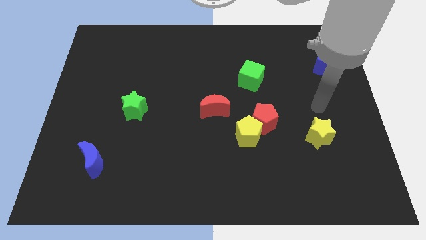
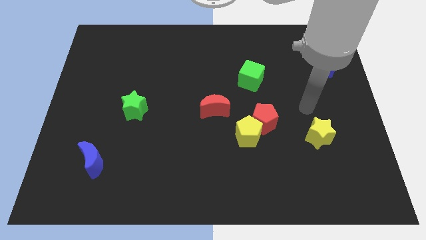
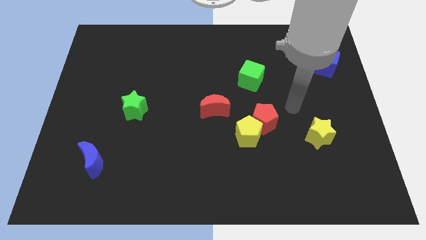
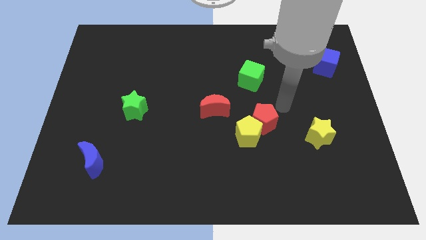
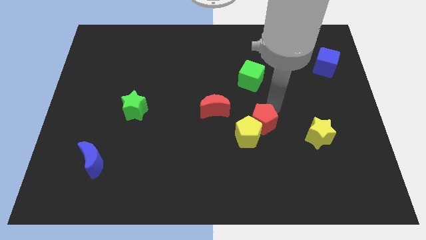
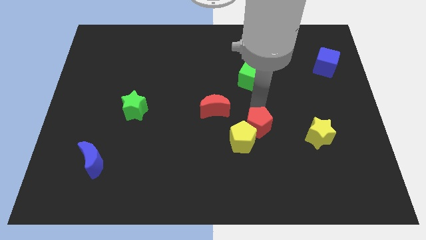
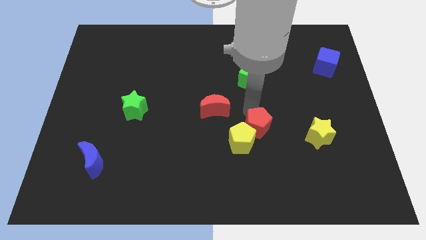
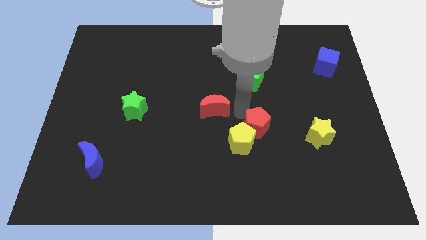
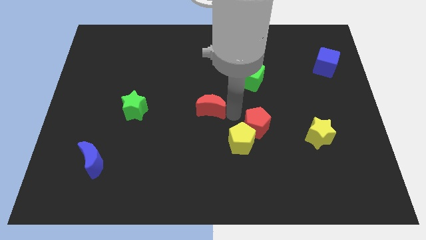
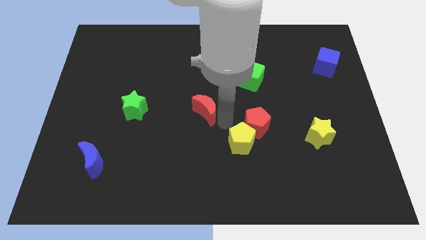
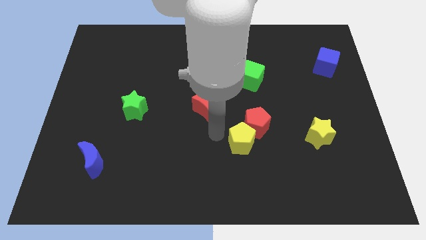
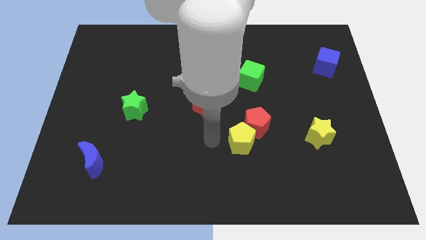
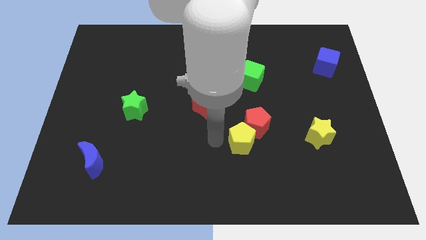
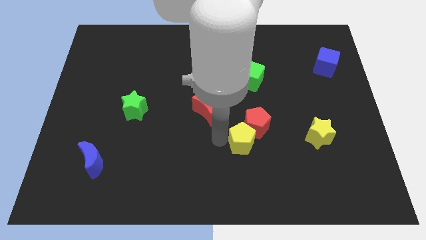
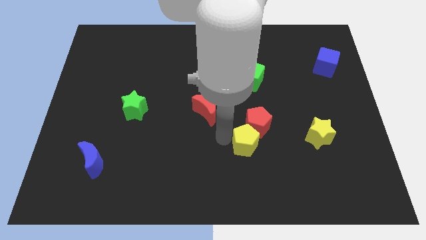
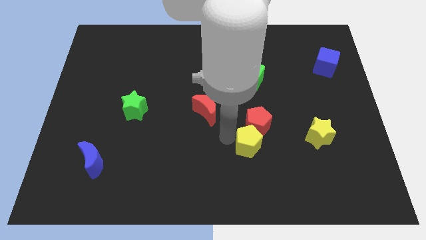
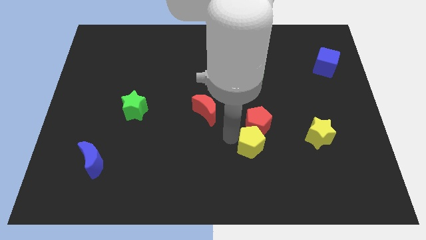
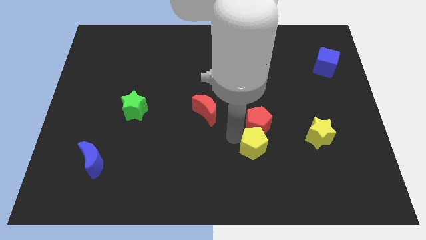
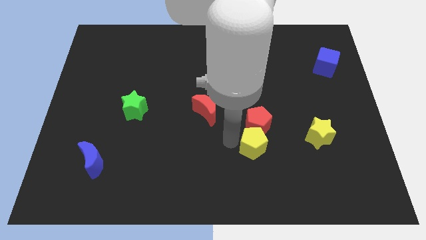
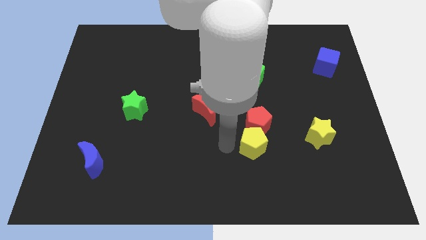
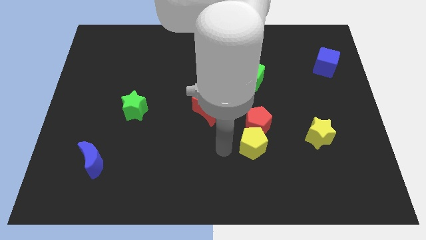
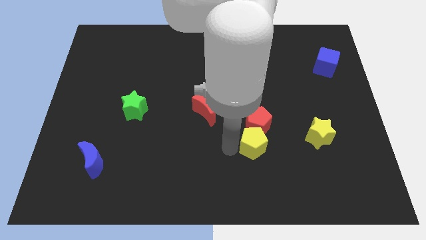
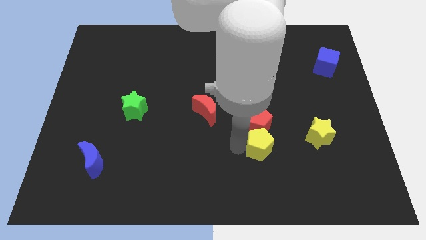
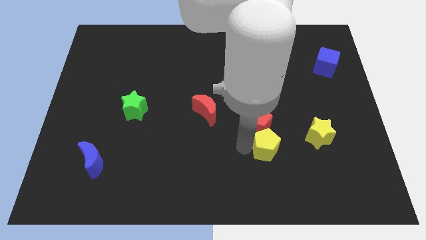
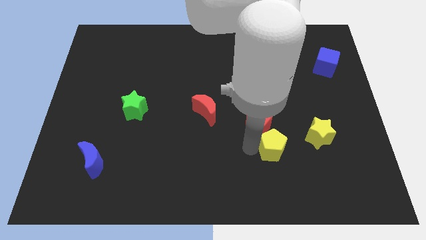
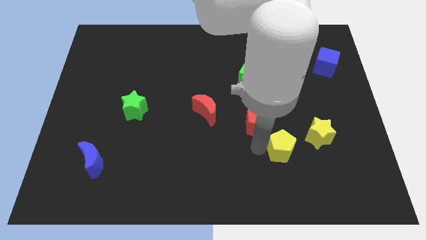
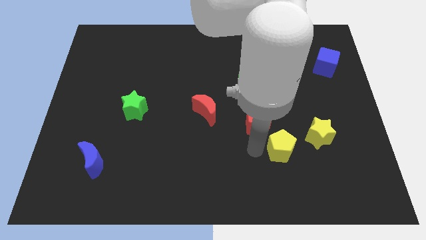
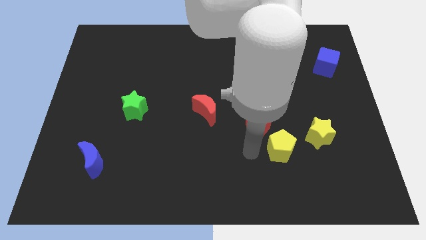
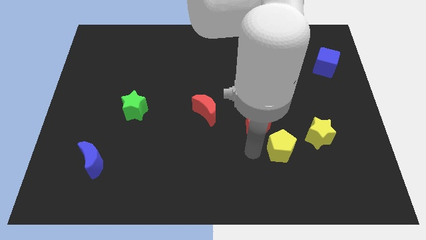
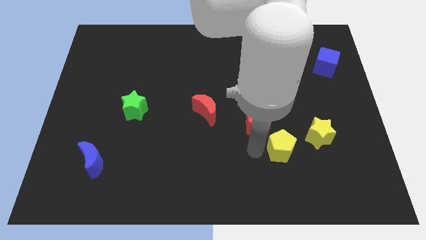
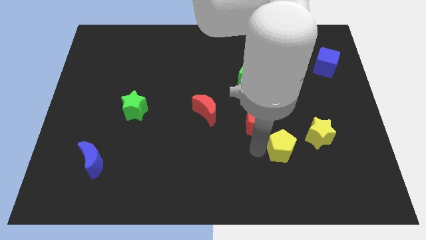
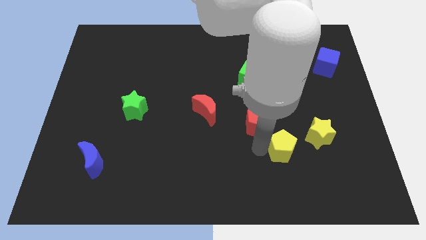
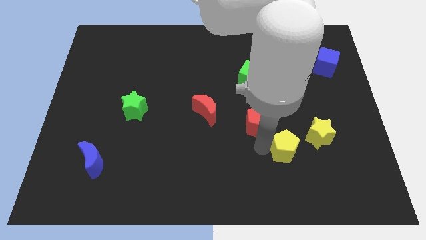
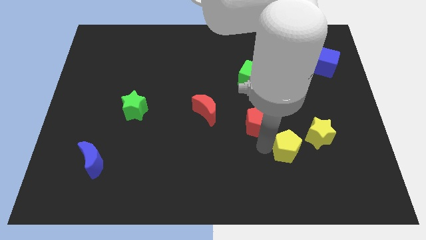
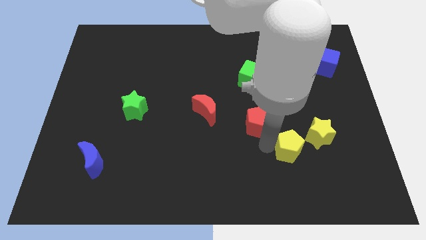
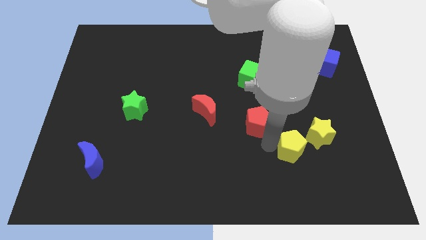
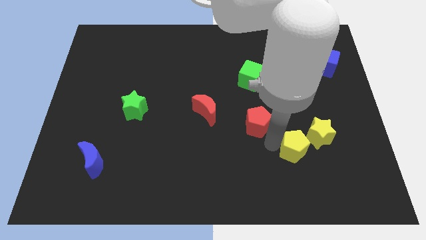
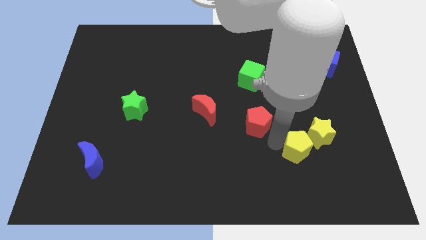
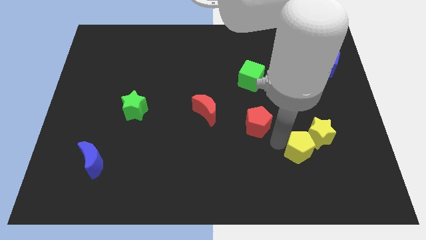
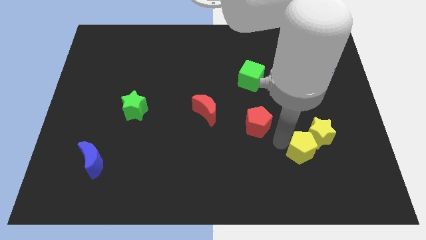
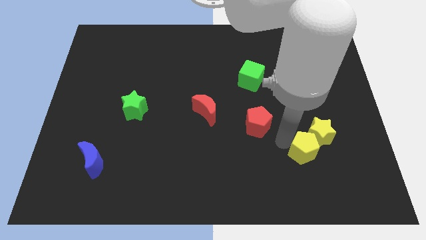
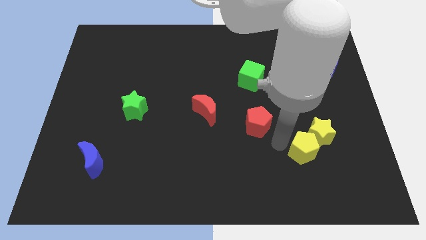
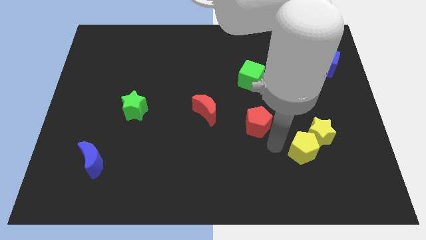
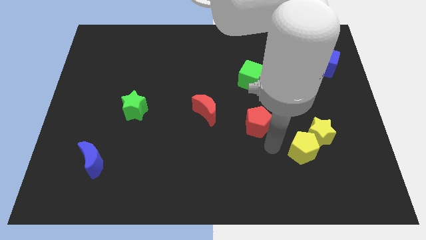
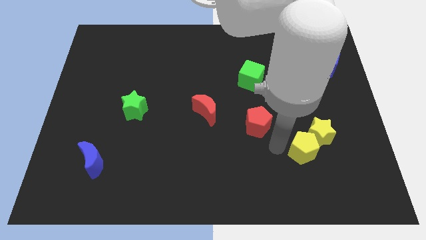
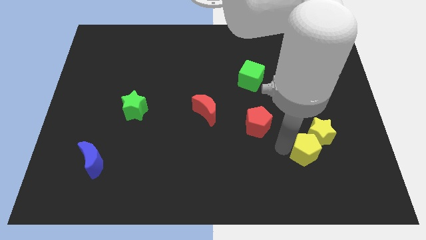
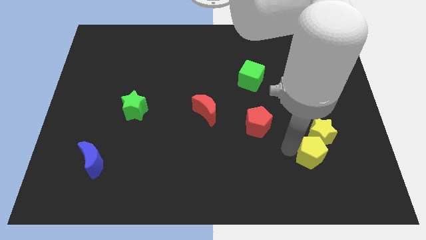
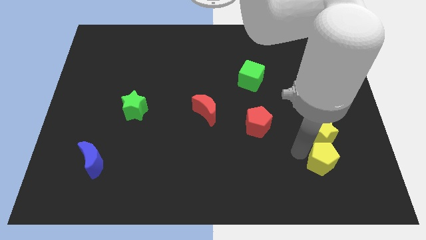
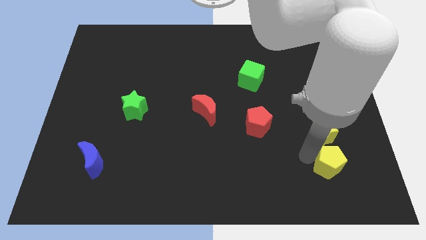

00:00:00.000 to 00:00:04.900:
put the yellow pentagon to the bottom right of the yellow star

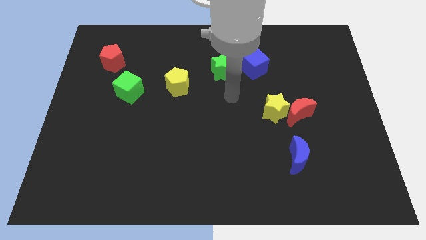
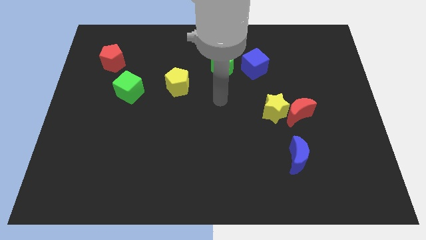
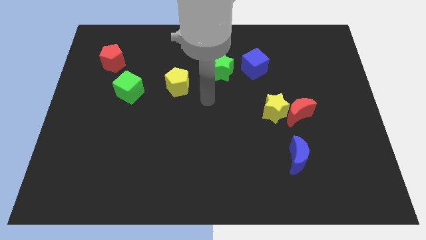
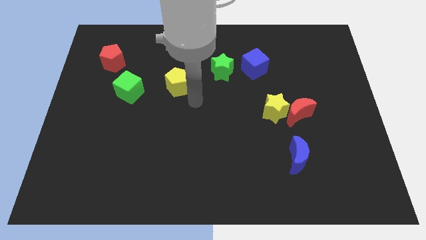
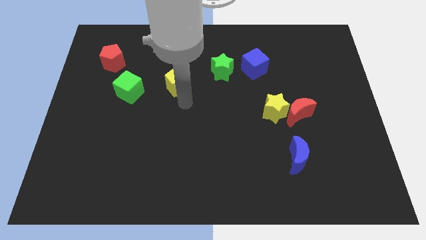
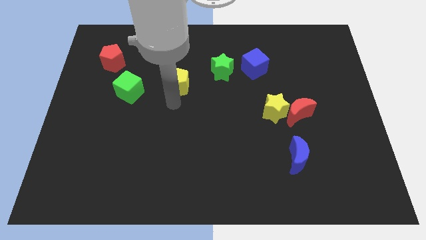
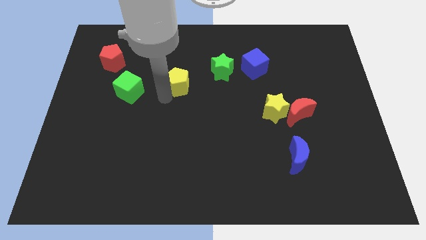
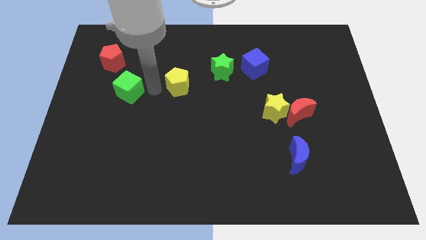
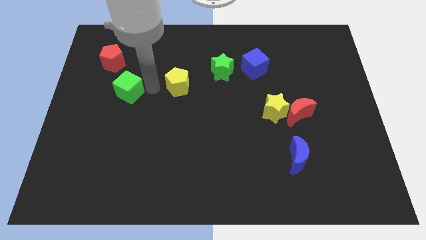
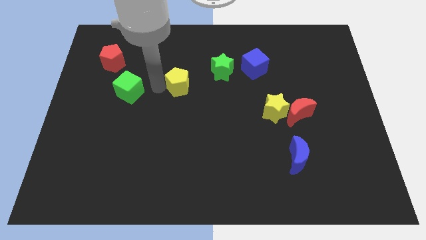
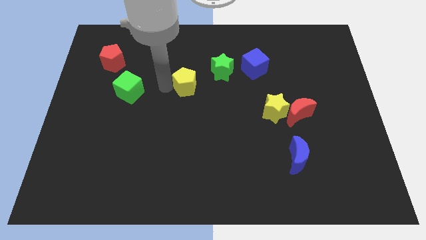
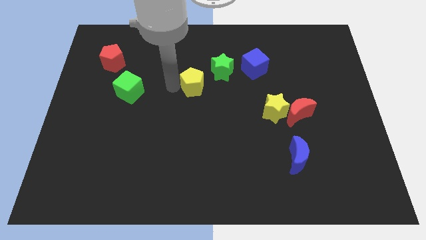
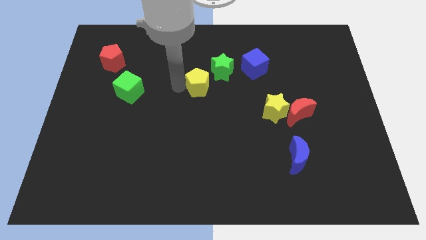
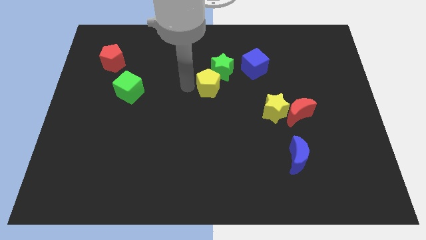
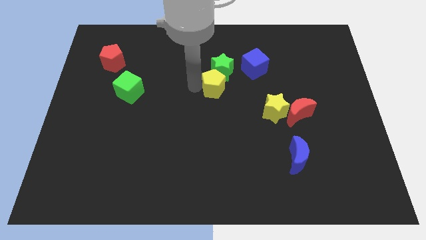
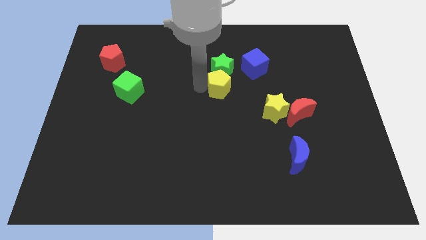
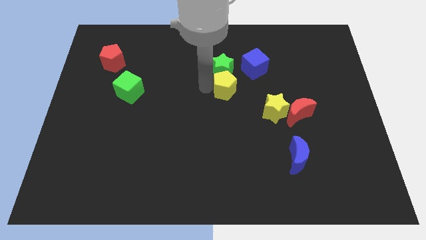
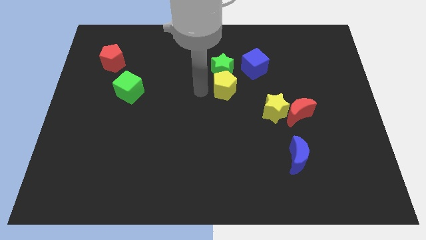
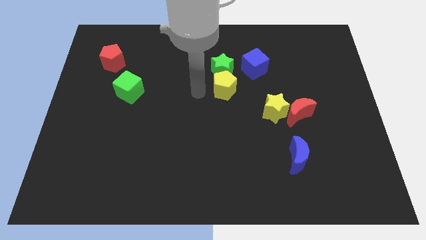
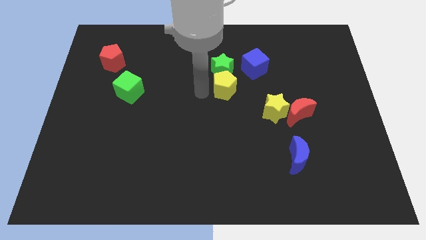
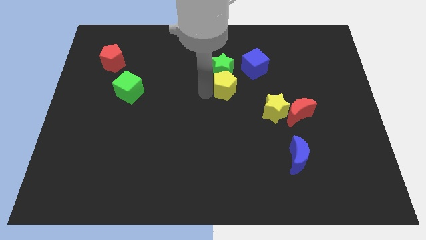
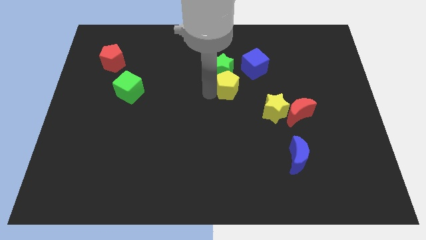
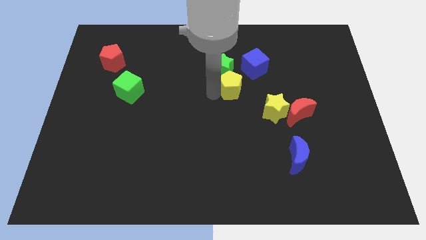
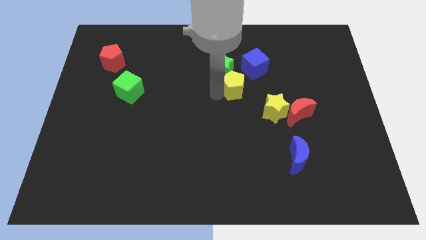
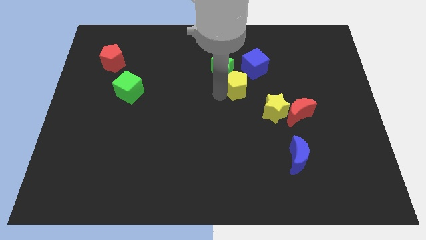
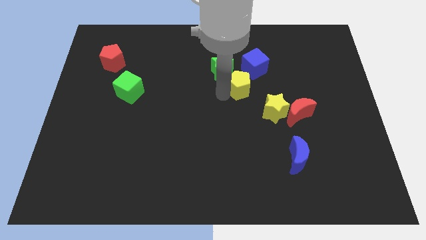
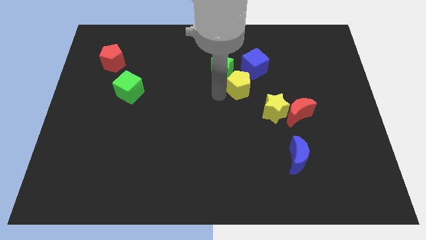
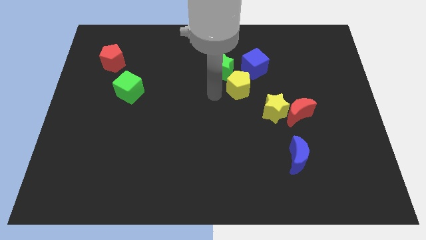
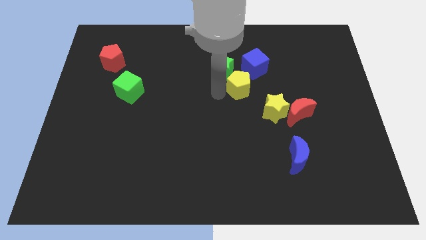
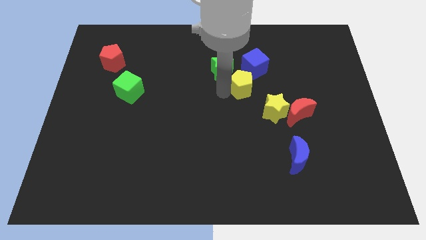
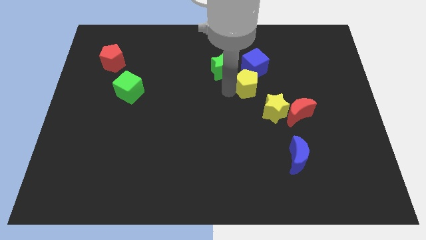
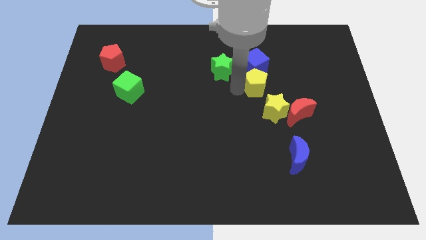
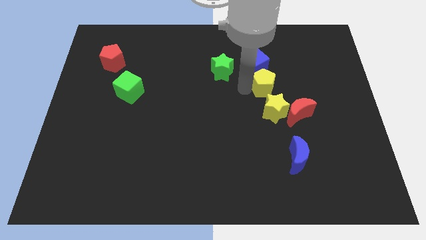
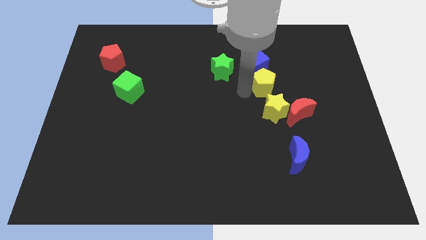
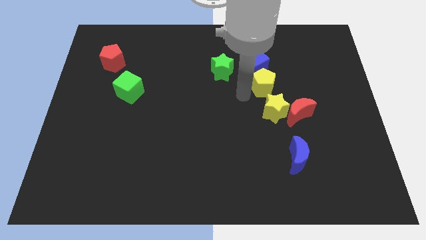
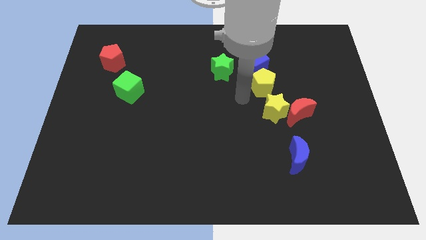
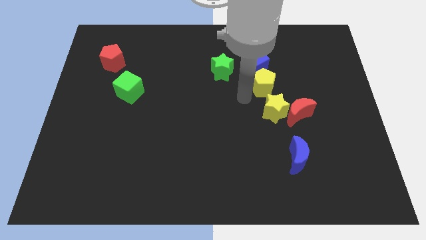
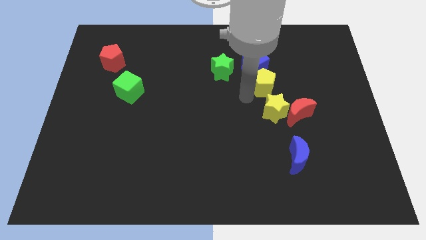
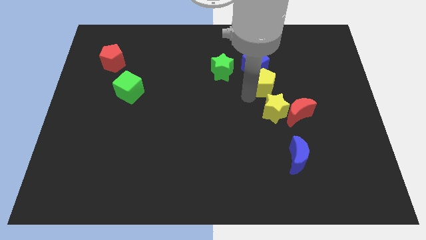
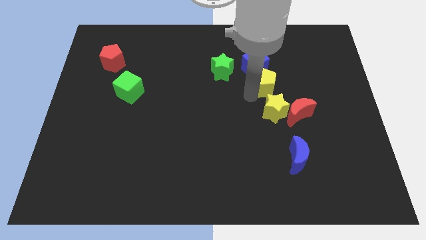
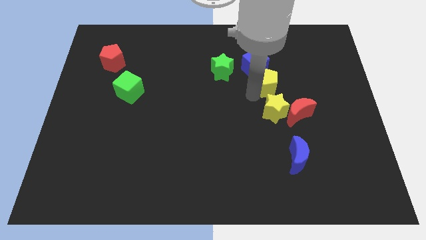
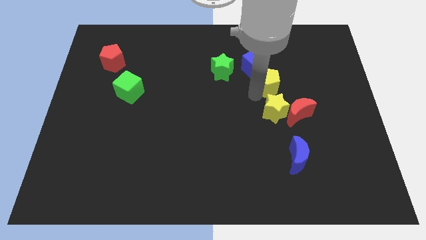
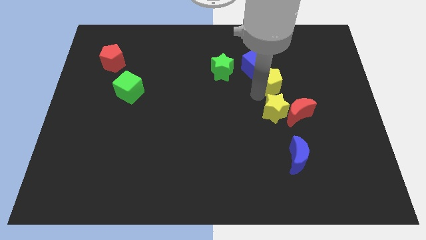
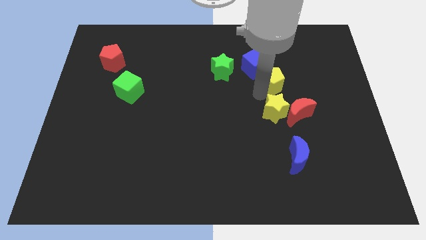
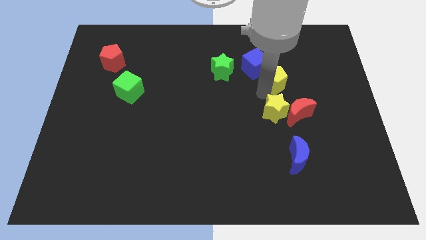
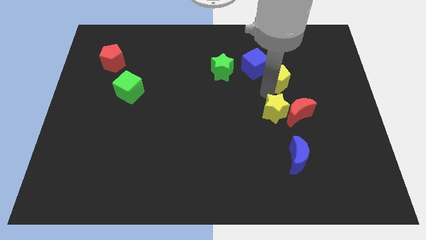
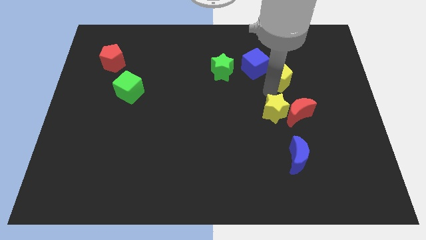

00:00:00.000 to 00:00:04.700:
move the yellow pentagon just right of the blue cube
